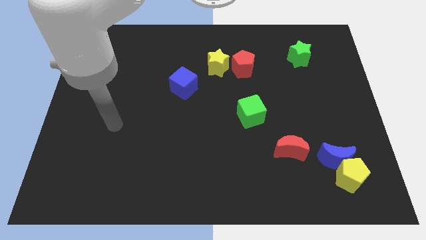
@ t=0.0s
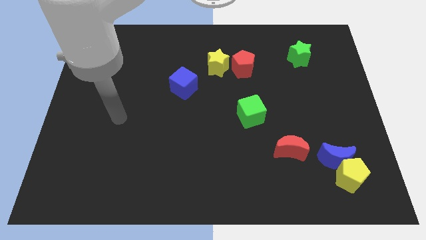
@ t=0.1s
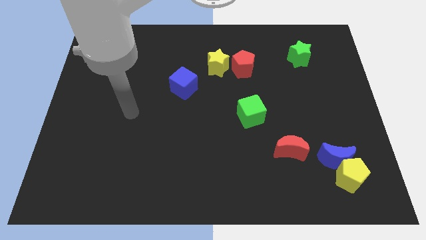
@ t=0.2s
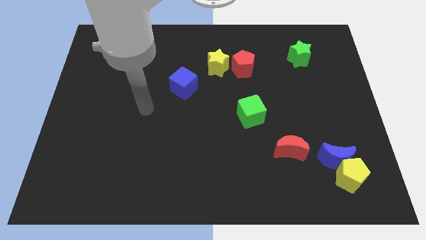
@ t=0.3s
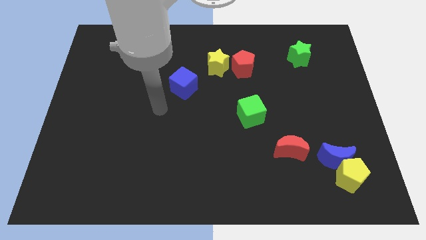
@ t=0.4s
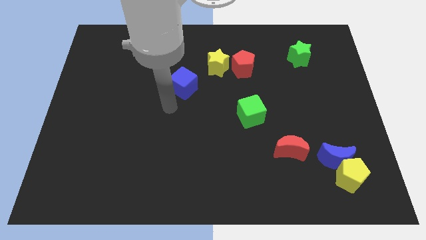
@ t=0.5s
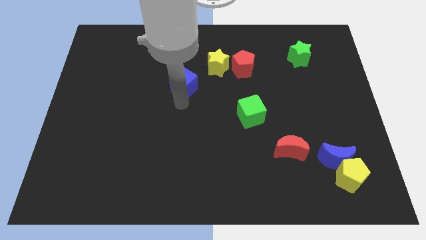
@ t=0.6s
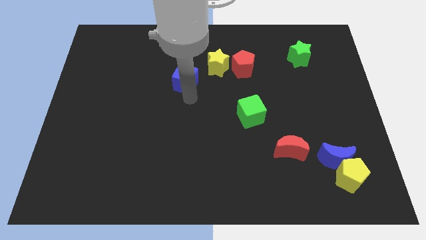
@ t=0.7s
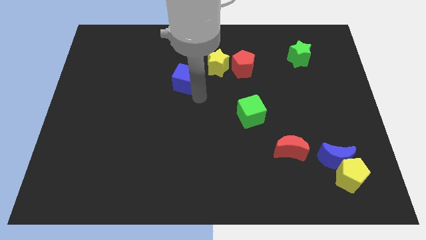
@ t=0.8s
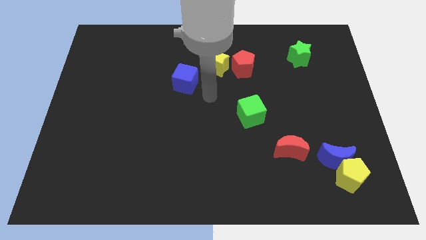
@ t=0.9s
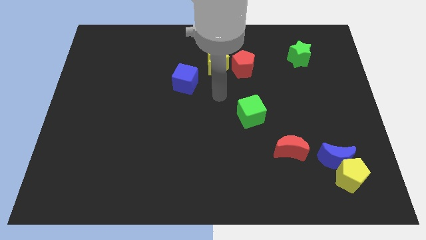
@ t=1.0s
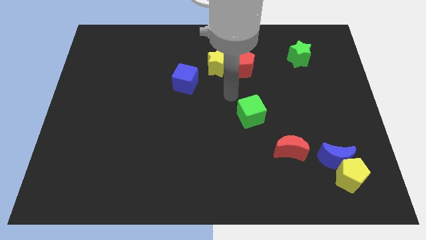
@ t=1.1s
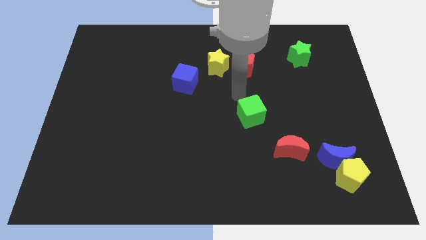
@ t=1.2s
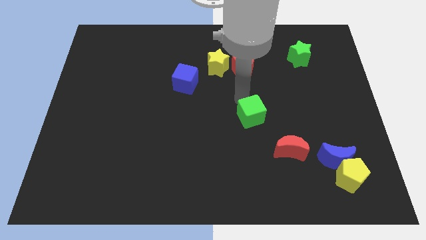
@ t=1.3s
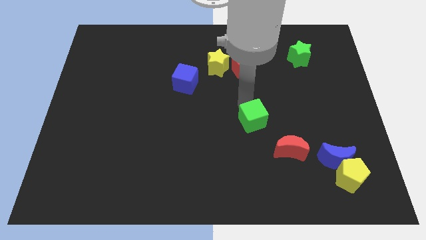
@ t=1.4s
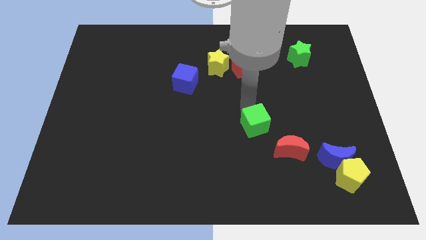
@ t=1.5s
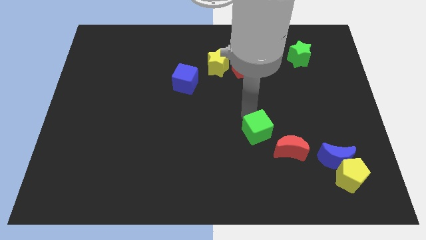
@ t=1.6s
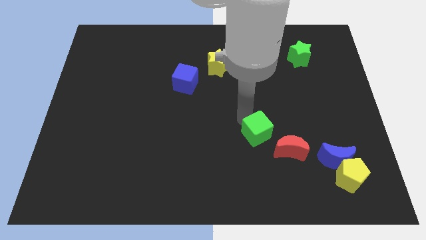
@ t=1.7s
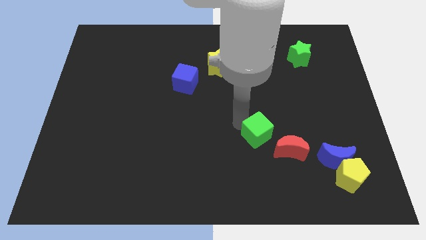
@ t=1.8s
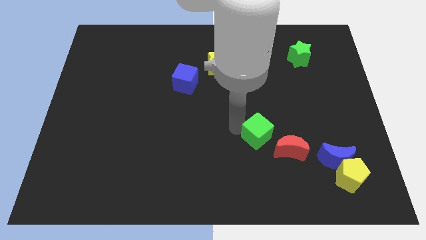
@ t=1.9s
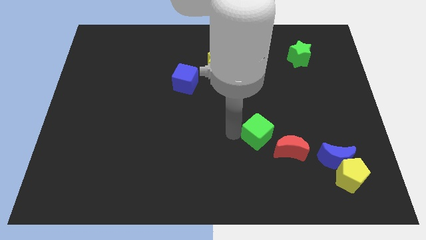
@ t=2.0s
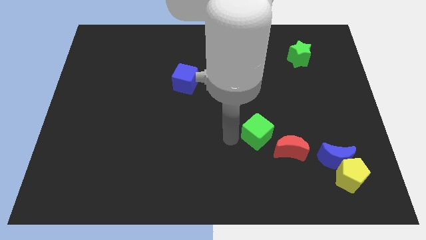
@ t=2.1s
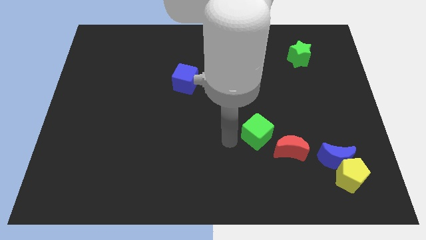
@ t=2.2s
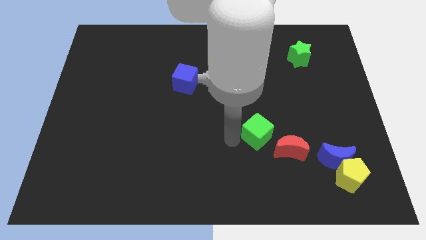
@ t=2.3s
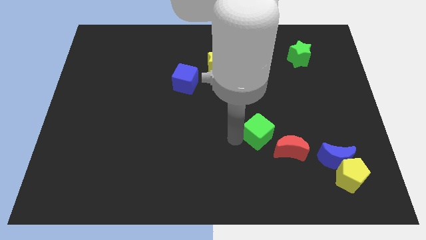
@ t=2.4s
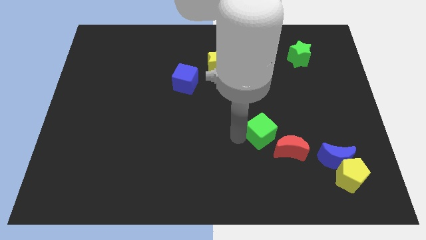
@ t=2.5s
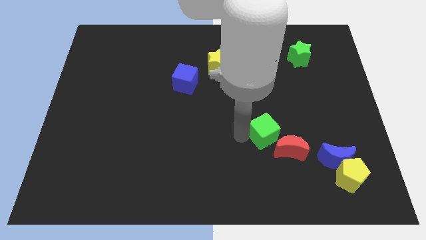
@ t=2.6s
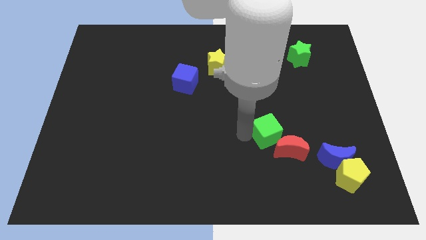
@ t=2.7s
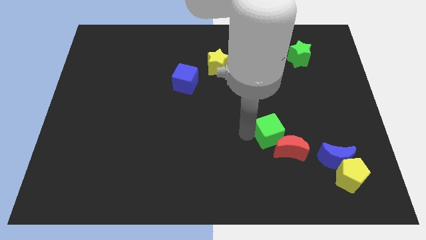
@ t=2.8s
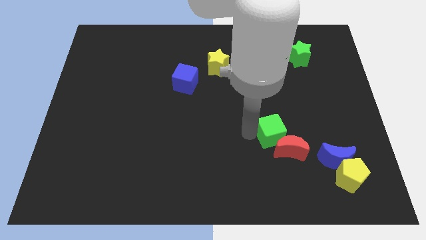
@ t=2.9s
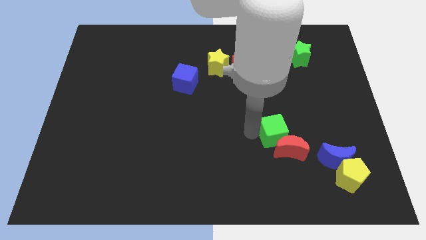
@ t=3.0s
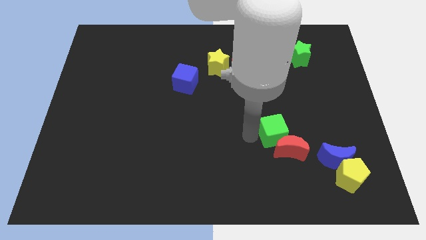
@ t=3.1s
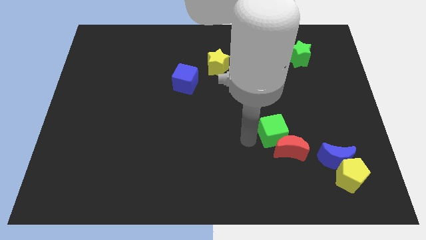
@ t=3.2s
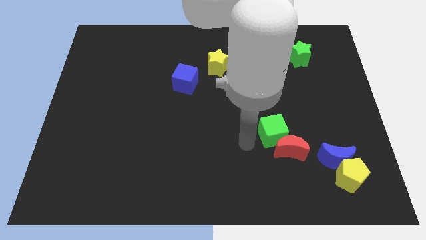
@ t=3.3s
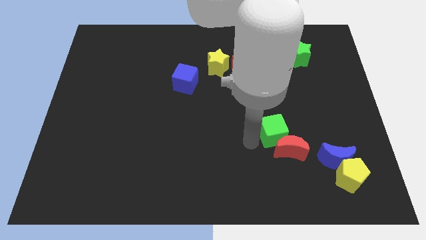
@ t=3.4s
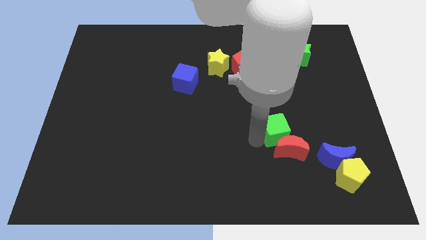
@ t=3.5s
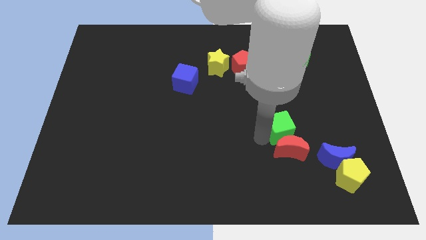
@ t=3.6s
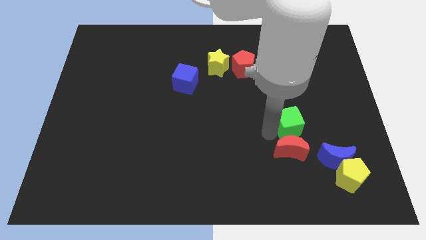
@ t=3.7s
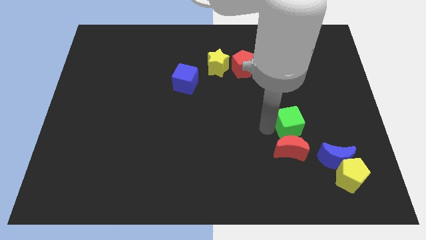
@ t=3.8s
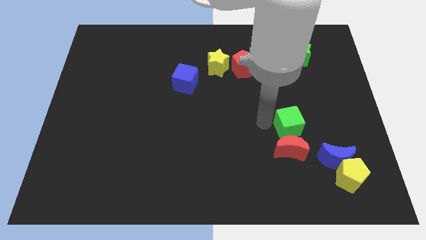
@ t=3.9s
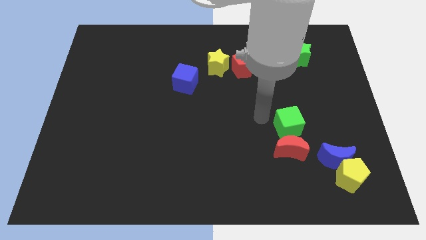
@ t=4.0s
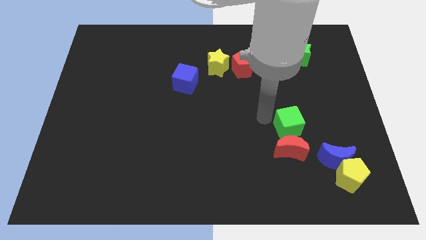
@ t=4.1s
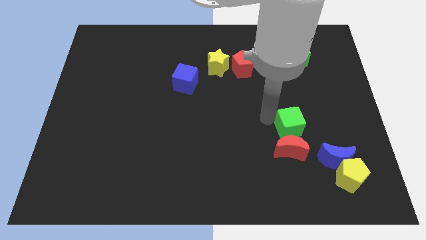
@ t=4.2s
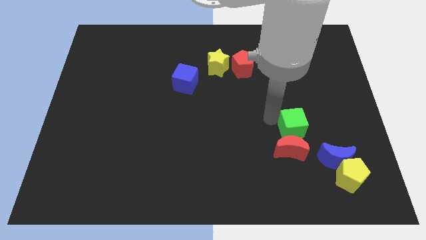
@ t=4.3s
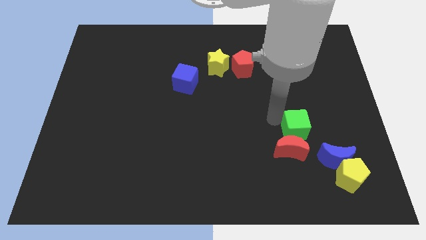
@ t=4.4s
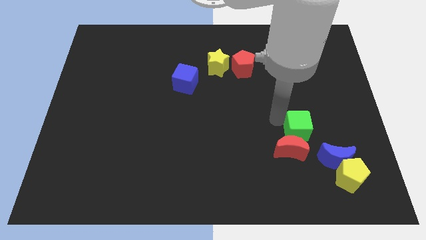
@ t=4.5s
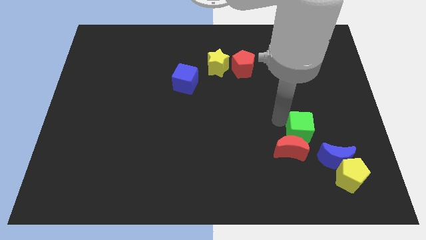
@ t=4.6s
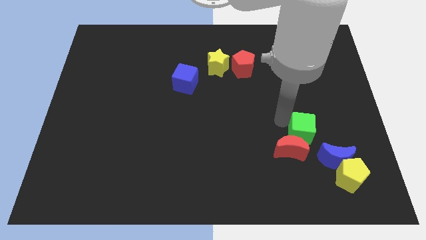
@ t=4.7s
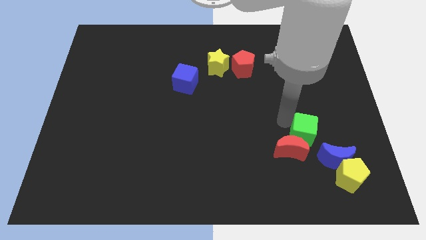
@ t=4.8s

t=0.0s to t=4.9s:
push the green cube to the right side of the red moon

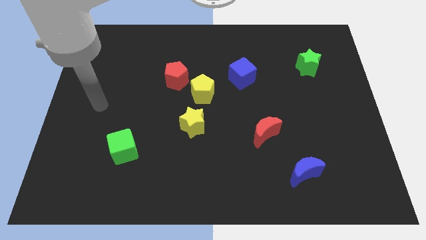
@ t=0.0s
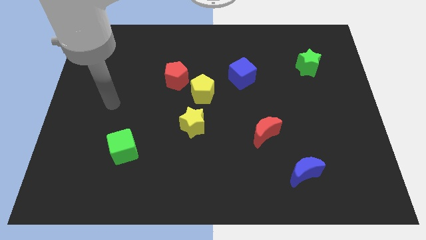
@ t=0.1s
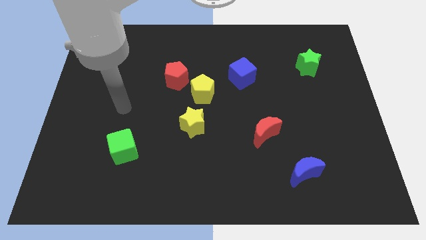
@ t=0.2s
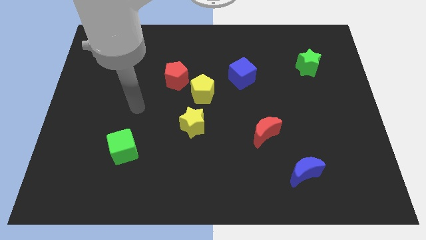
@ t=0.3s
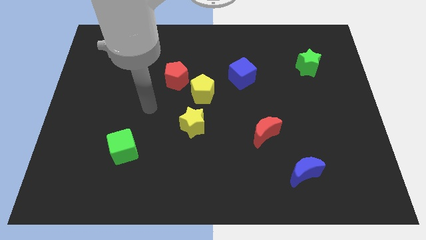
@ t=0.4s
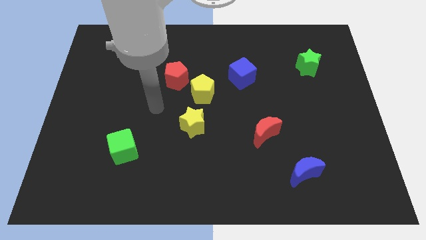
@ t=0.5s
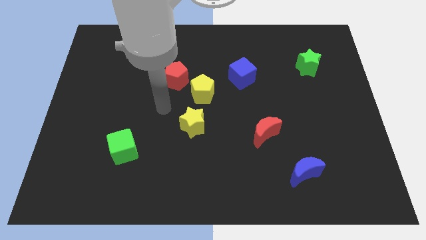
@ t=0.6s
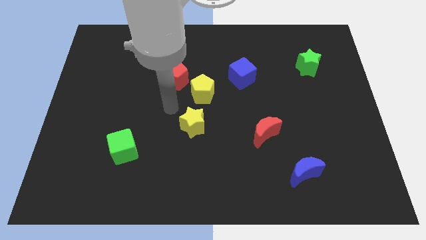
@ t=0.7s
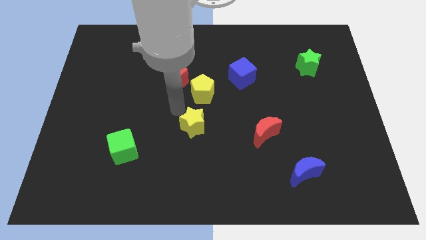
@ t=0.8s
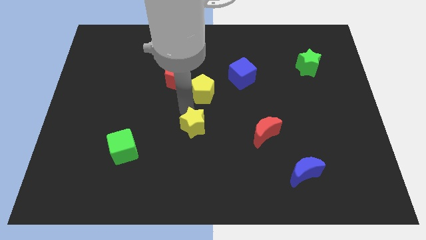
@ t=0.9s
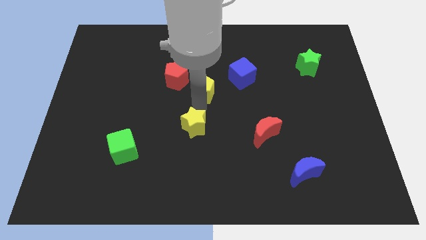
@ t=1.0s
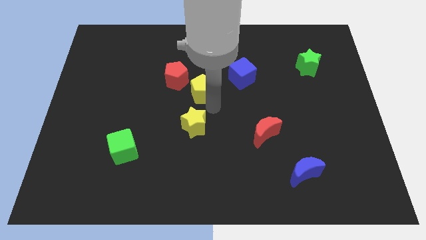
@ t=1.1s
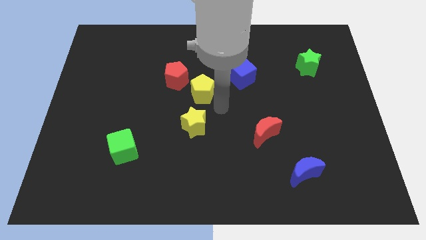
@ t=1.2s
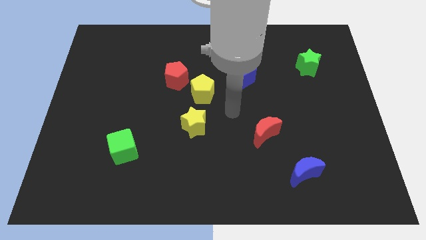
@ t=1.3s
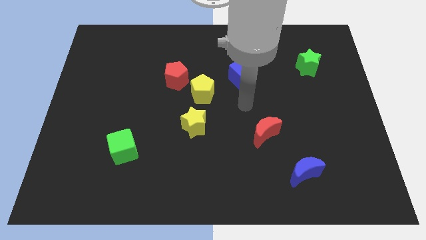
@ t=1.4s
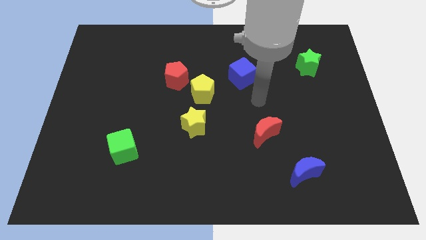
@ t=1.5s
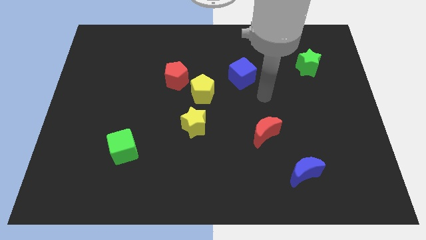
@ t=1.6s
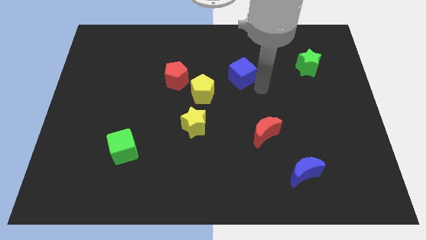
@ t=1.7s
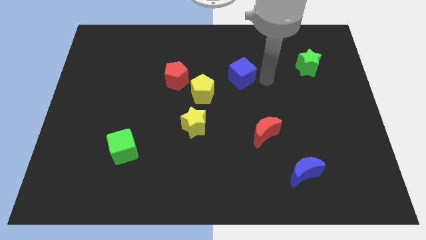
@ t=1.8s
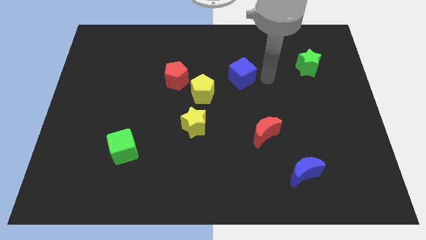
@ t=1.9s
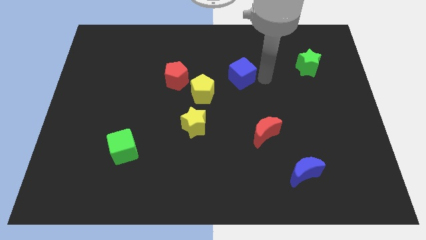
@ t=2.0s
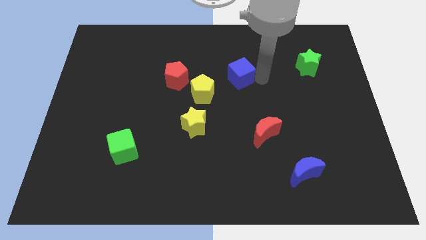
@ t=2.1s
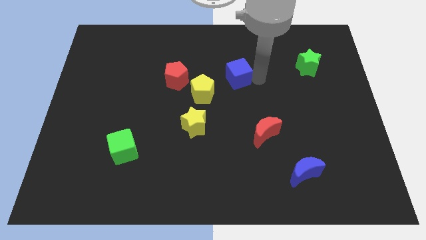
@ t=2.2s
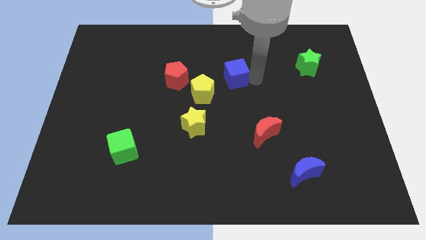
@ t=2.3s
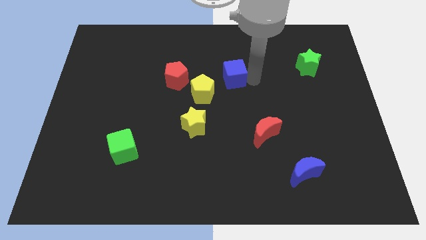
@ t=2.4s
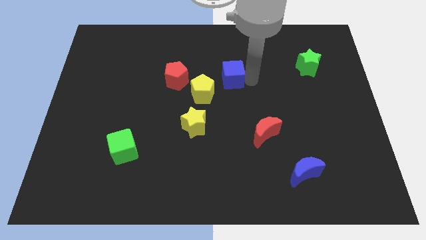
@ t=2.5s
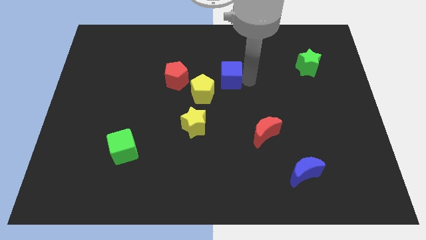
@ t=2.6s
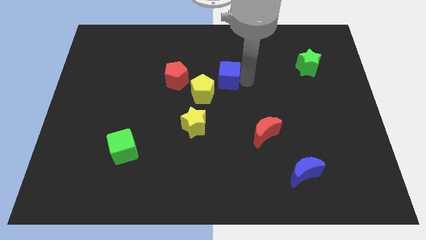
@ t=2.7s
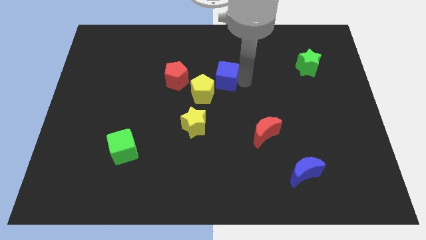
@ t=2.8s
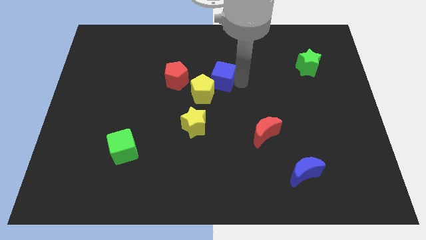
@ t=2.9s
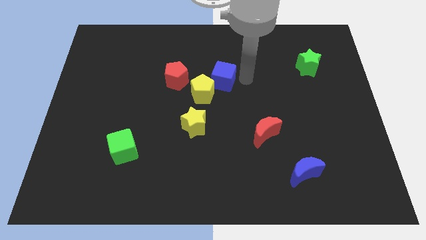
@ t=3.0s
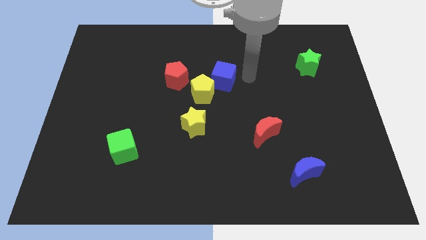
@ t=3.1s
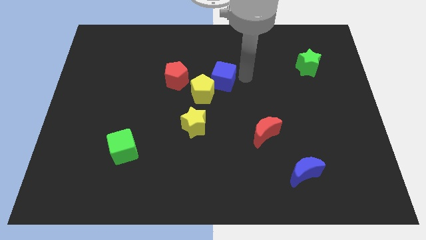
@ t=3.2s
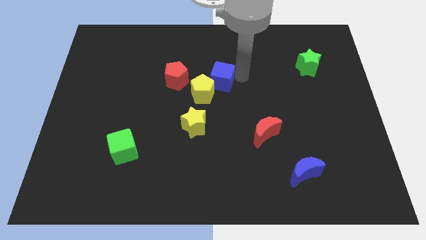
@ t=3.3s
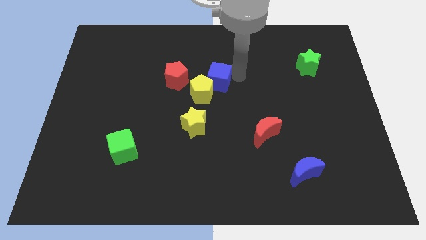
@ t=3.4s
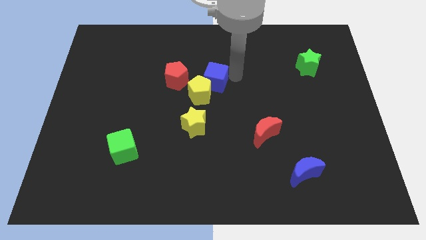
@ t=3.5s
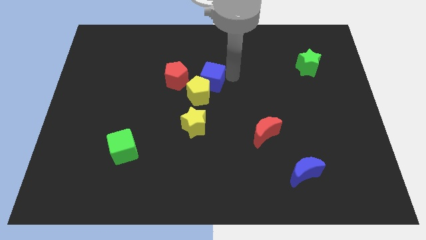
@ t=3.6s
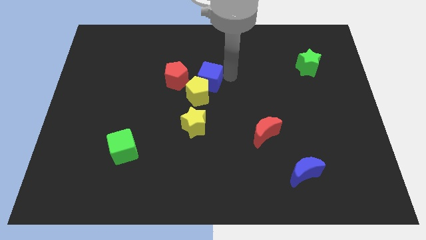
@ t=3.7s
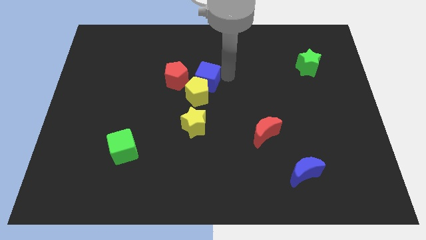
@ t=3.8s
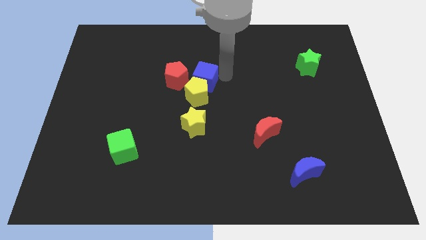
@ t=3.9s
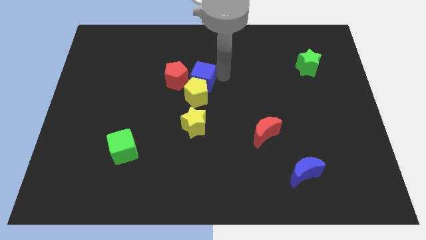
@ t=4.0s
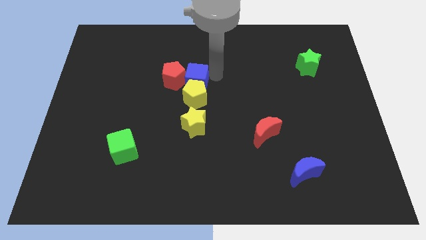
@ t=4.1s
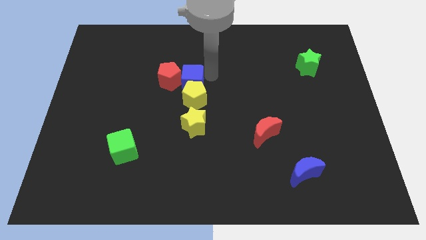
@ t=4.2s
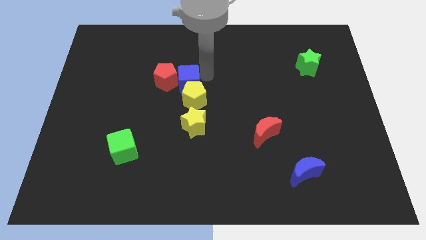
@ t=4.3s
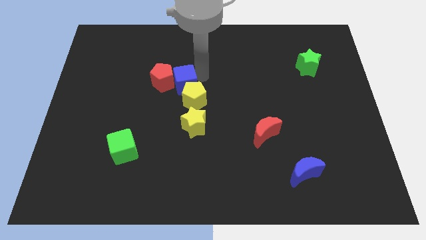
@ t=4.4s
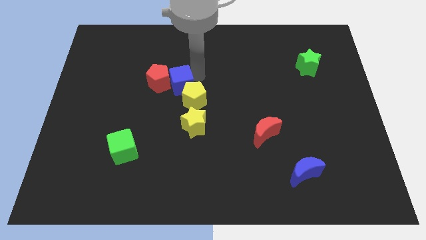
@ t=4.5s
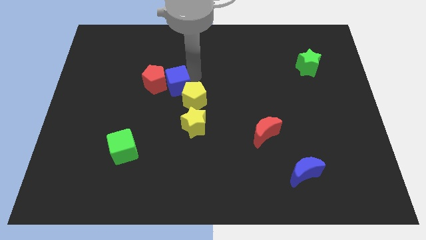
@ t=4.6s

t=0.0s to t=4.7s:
push the blue cube to the left of the yellow pentagon
